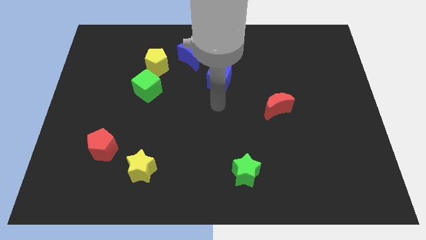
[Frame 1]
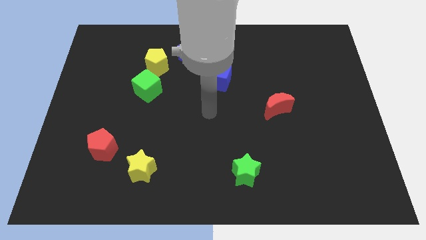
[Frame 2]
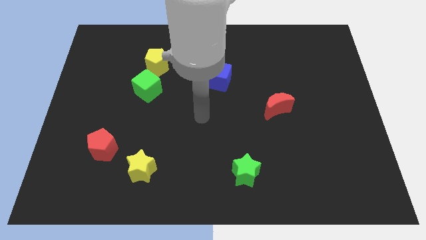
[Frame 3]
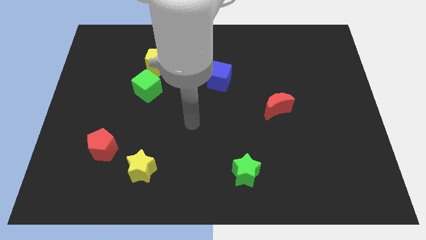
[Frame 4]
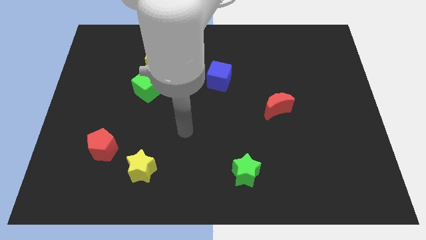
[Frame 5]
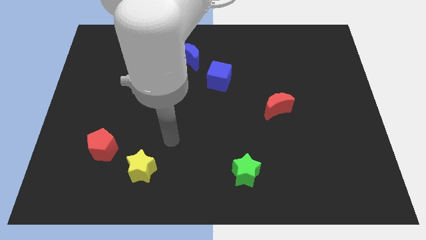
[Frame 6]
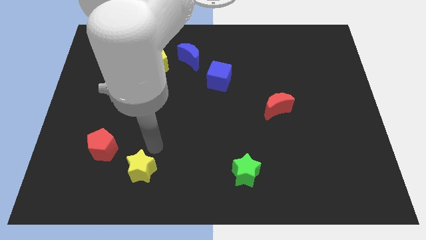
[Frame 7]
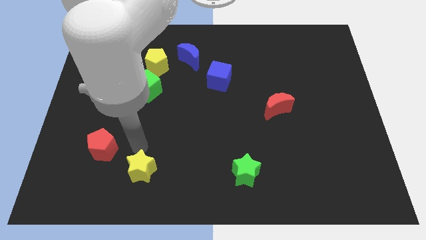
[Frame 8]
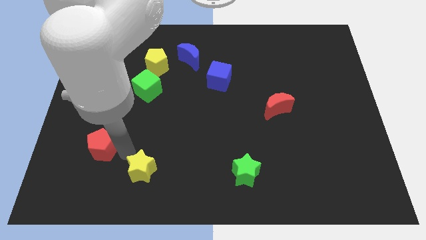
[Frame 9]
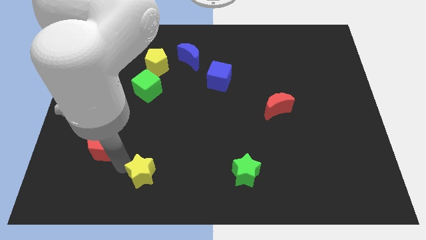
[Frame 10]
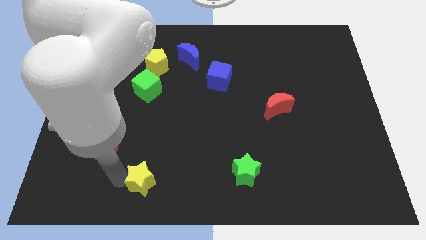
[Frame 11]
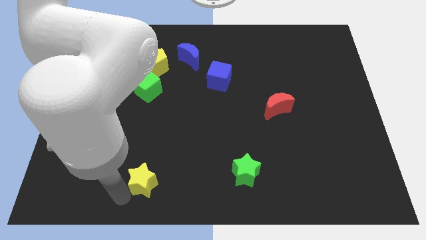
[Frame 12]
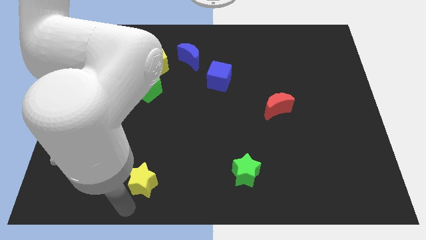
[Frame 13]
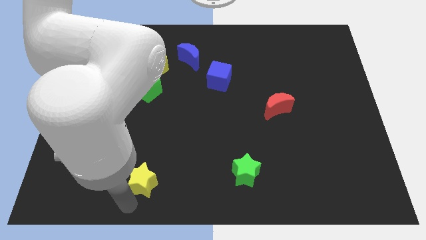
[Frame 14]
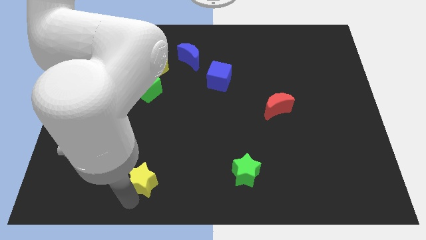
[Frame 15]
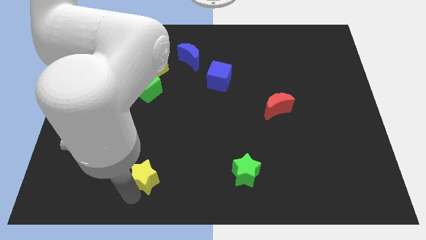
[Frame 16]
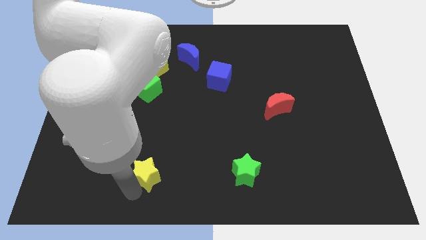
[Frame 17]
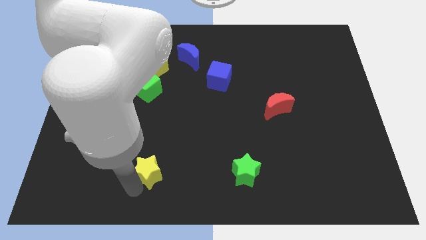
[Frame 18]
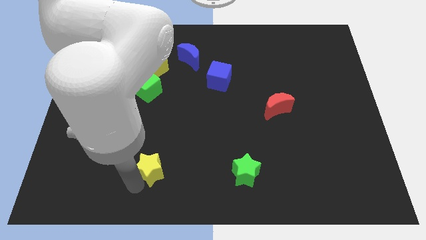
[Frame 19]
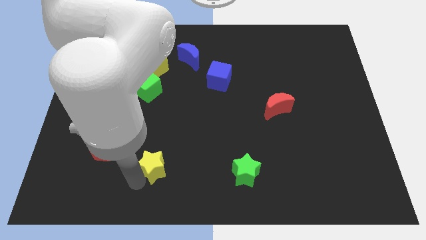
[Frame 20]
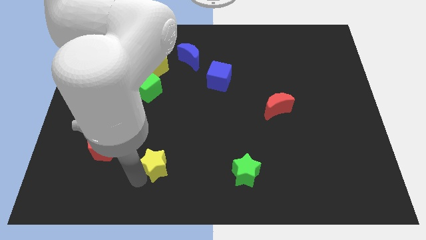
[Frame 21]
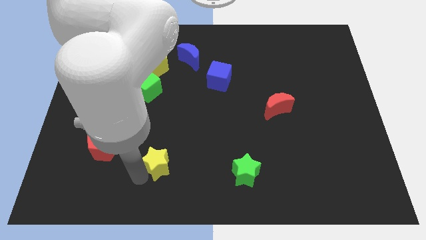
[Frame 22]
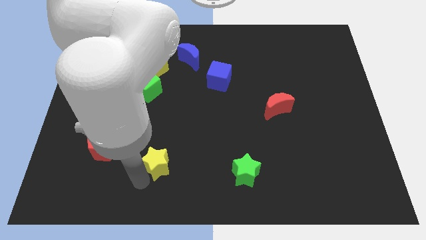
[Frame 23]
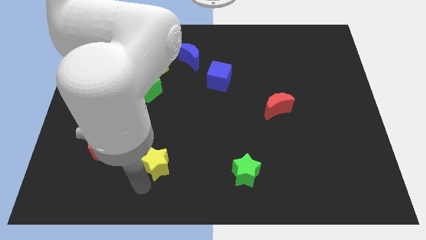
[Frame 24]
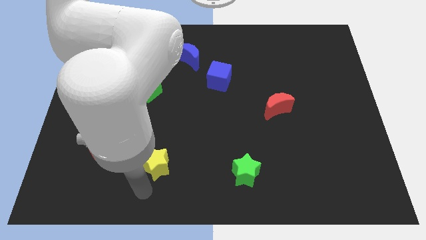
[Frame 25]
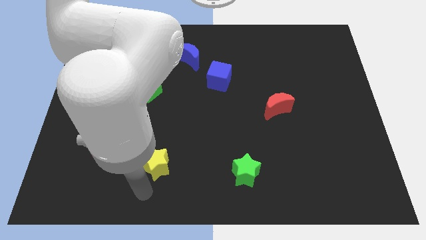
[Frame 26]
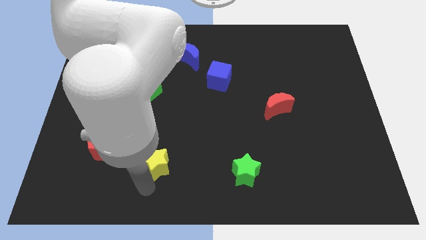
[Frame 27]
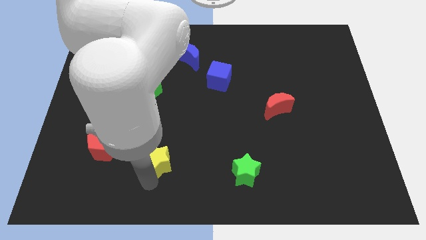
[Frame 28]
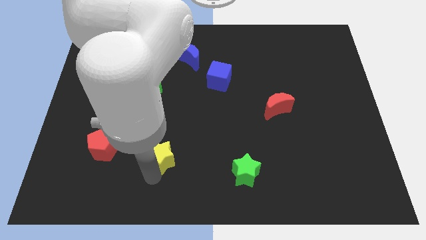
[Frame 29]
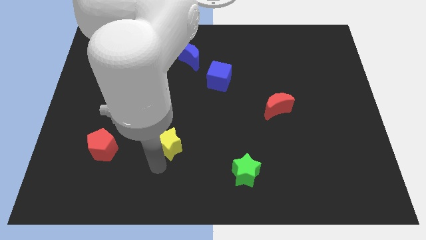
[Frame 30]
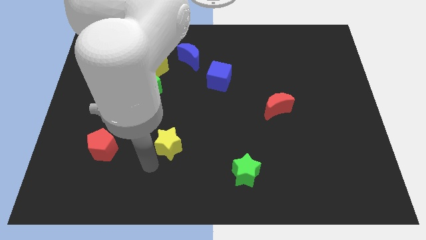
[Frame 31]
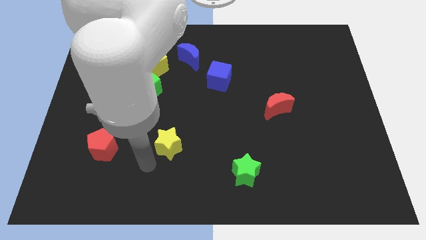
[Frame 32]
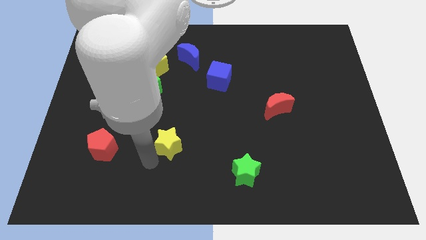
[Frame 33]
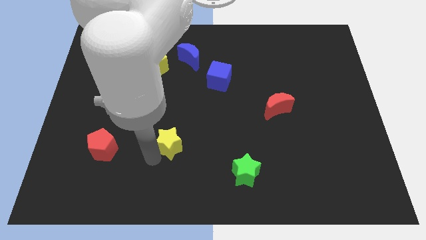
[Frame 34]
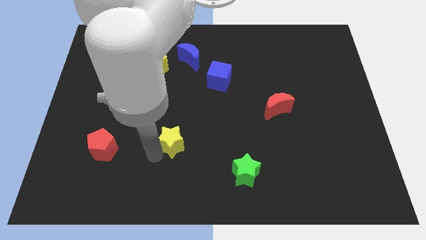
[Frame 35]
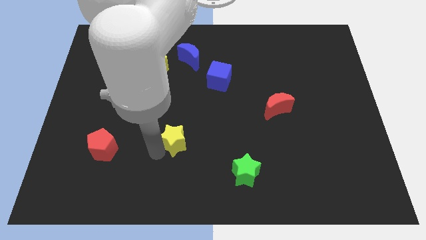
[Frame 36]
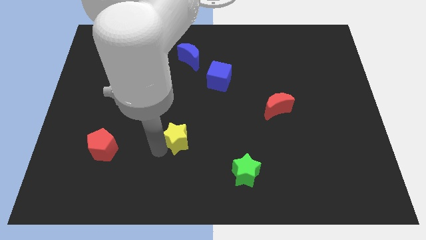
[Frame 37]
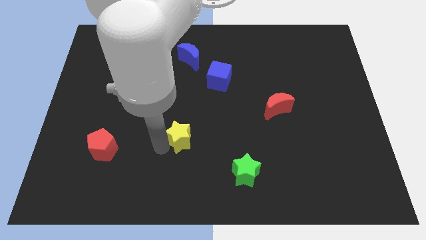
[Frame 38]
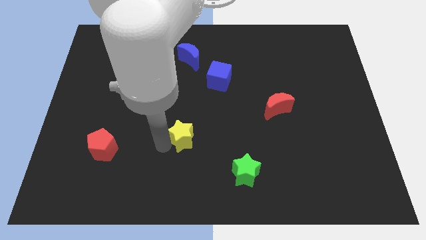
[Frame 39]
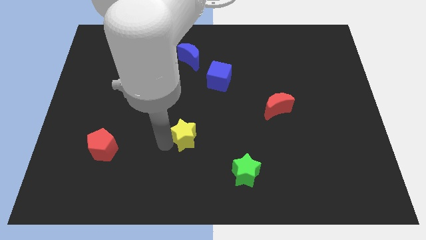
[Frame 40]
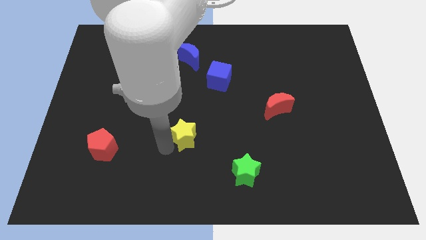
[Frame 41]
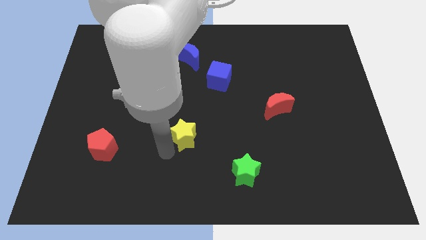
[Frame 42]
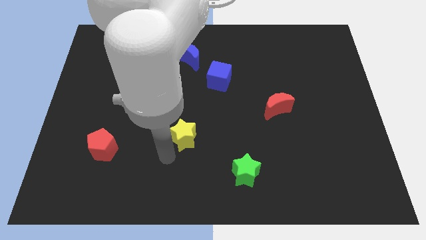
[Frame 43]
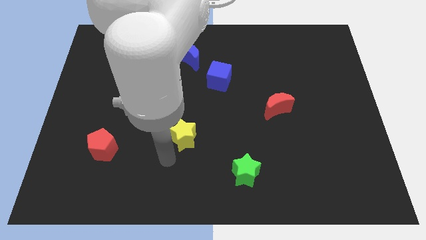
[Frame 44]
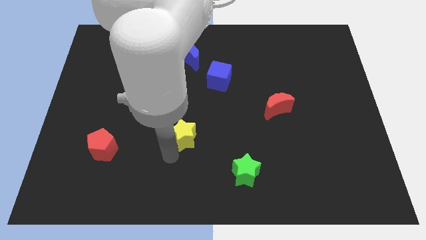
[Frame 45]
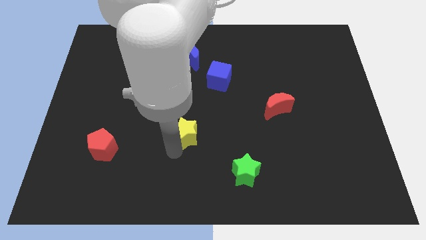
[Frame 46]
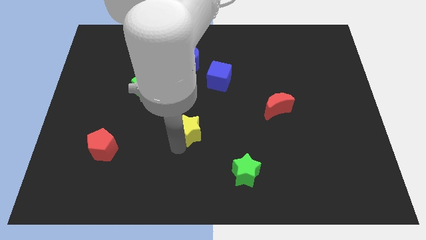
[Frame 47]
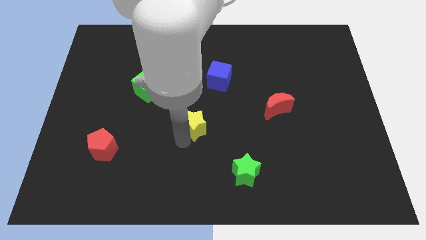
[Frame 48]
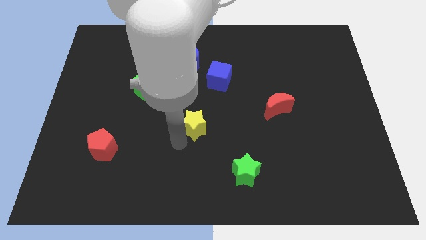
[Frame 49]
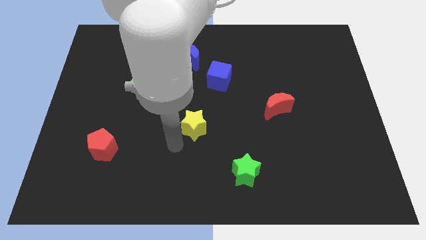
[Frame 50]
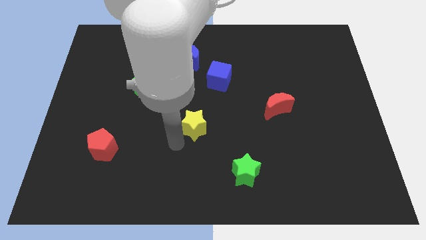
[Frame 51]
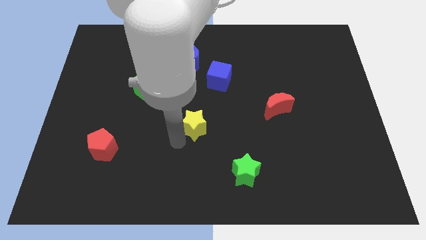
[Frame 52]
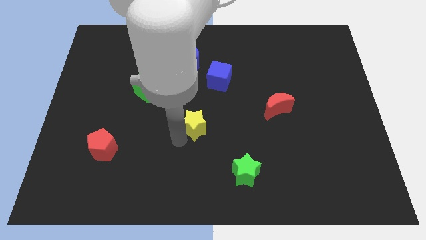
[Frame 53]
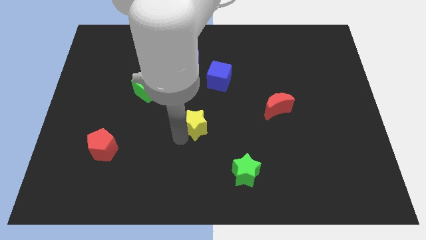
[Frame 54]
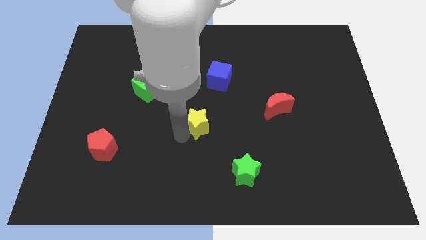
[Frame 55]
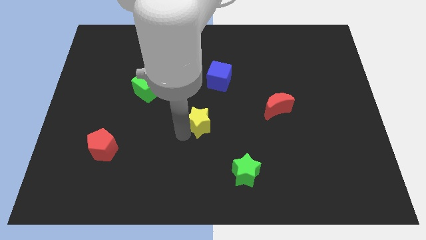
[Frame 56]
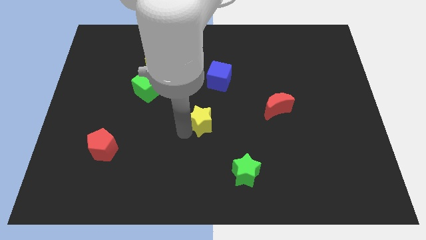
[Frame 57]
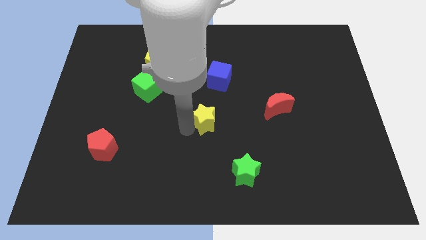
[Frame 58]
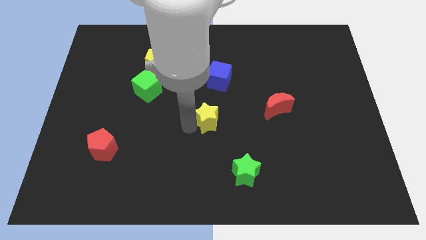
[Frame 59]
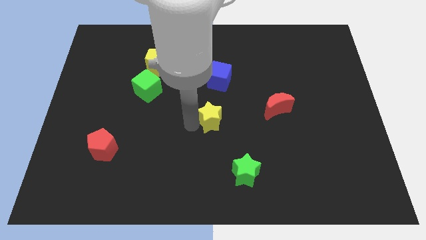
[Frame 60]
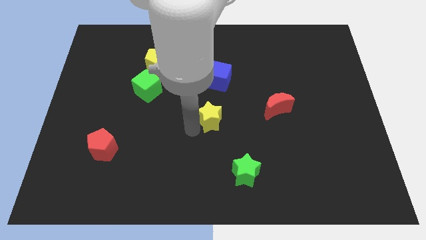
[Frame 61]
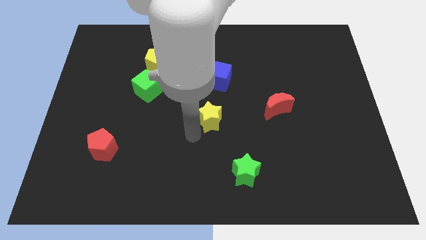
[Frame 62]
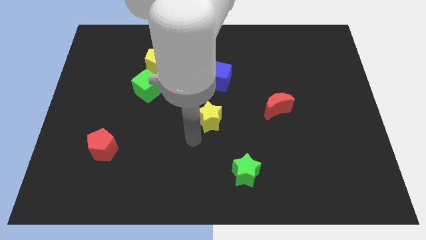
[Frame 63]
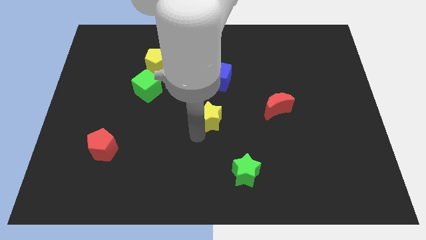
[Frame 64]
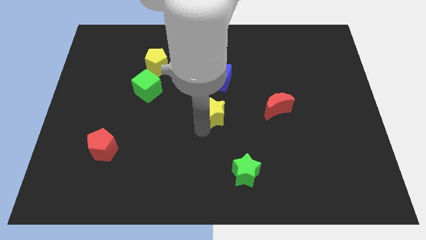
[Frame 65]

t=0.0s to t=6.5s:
push the yellow star up and to the right diagonally

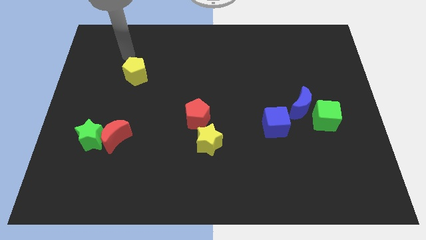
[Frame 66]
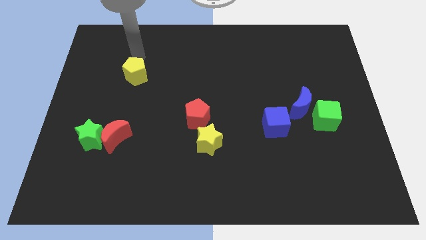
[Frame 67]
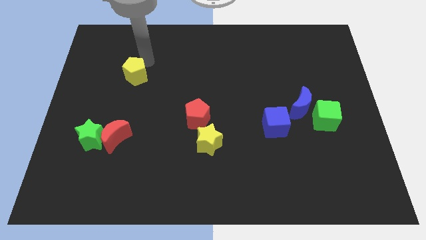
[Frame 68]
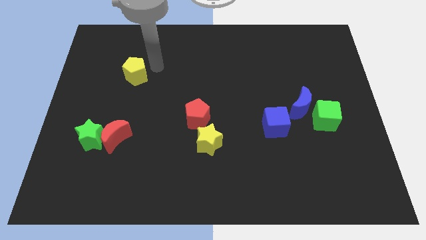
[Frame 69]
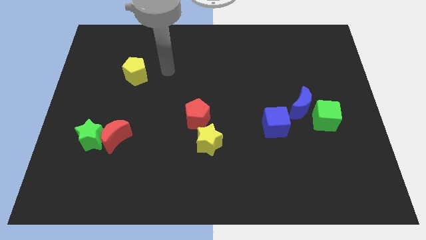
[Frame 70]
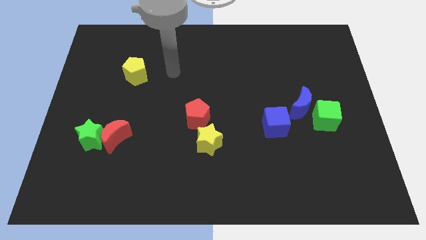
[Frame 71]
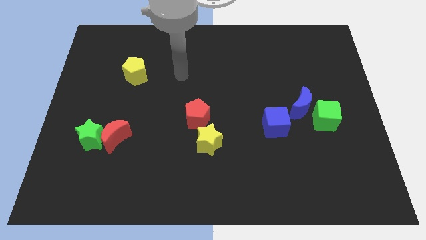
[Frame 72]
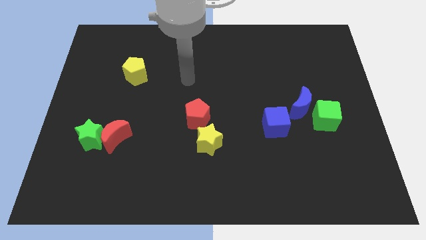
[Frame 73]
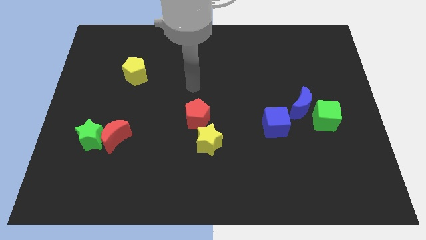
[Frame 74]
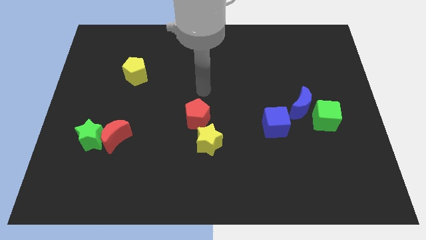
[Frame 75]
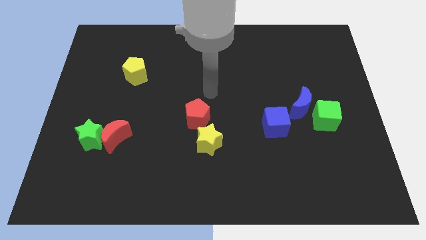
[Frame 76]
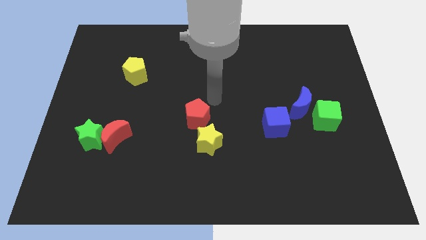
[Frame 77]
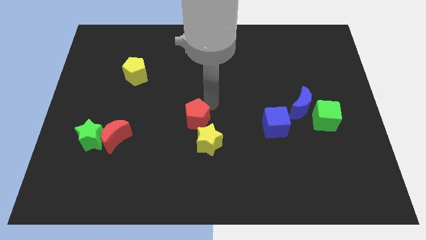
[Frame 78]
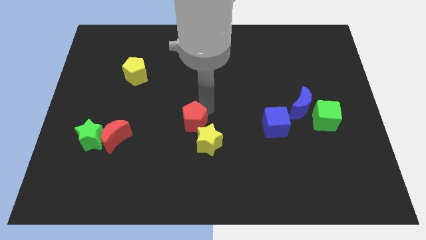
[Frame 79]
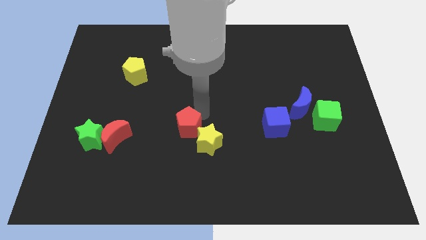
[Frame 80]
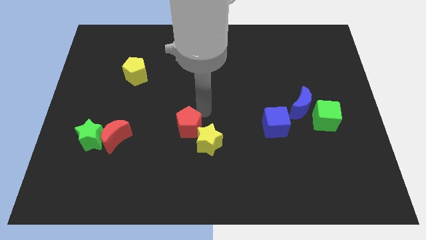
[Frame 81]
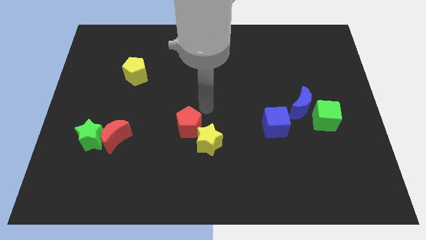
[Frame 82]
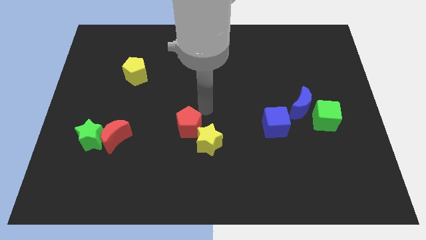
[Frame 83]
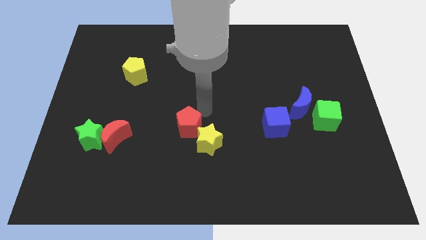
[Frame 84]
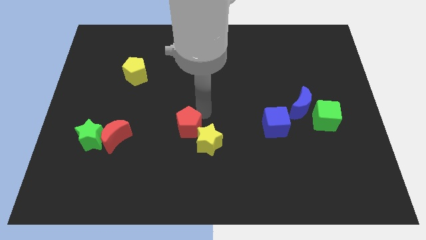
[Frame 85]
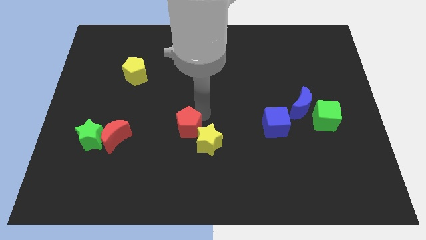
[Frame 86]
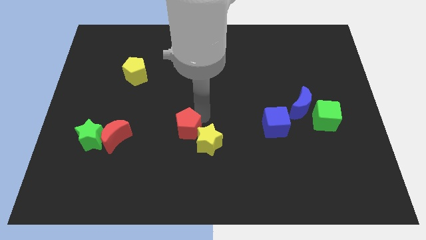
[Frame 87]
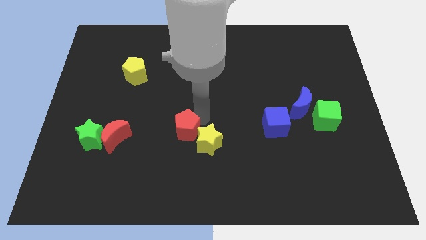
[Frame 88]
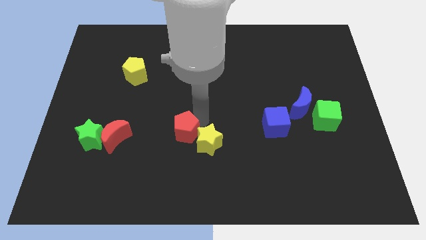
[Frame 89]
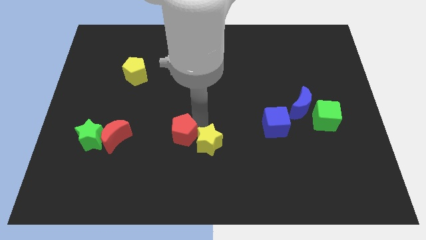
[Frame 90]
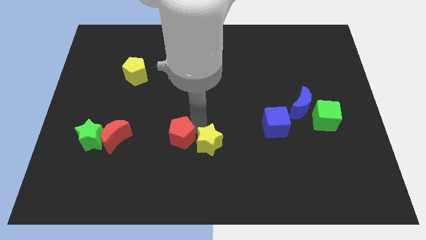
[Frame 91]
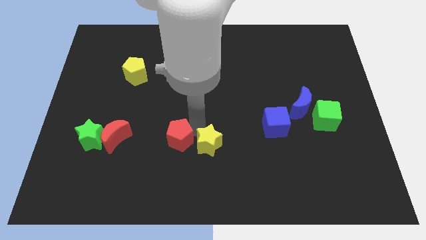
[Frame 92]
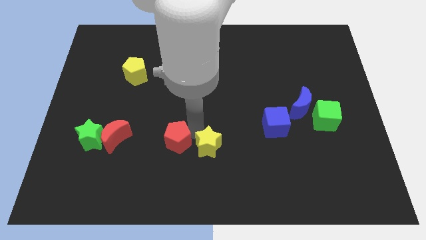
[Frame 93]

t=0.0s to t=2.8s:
move the red pentagon diagonally downwards and to the left somewhat
